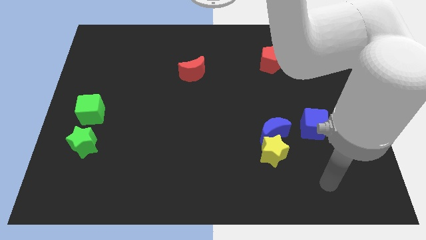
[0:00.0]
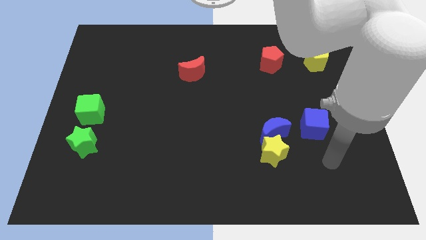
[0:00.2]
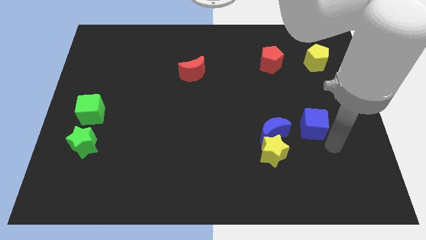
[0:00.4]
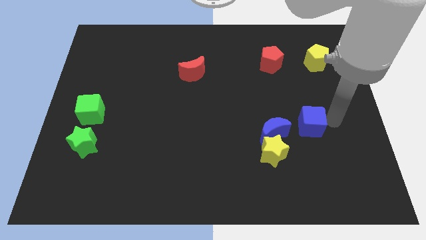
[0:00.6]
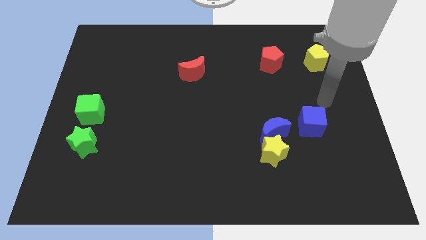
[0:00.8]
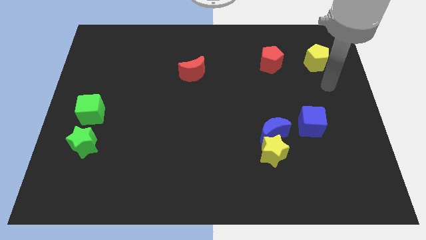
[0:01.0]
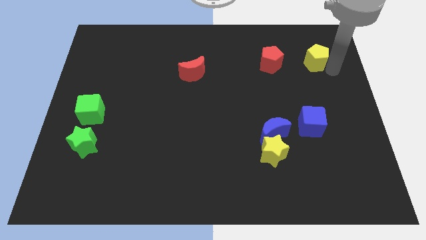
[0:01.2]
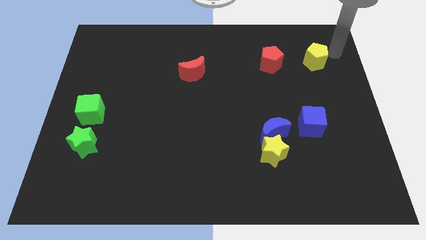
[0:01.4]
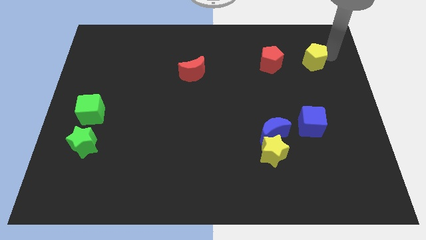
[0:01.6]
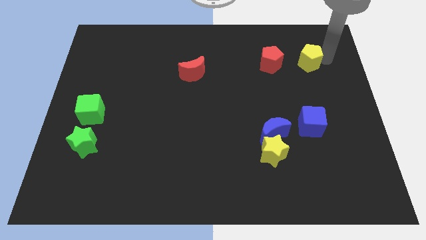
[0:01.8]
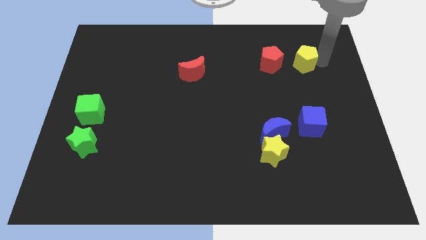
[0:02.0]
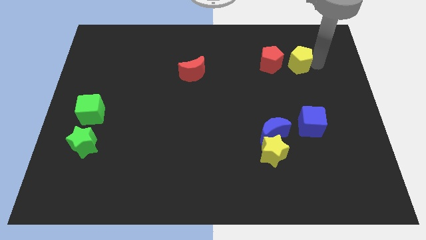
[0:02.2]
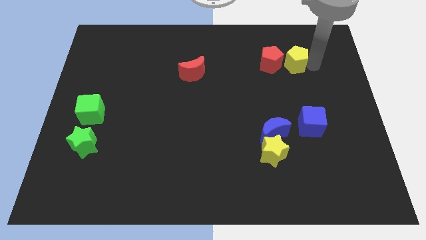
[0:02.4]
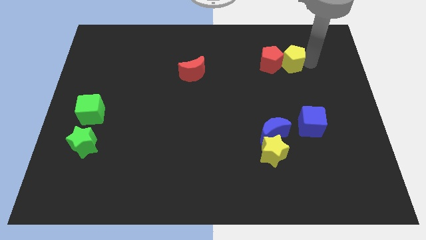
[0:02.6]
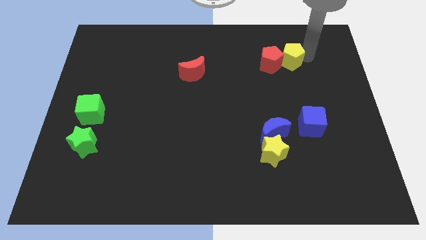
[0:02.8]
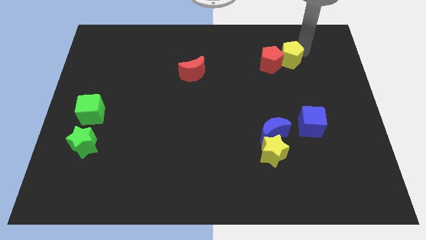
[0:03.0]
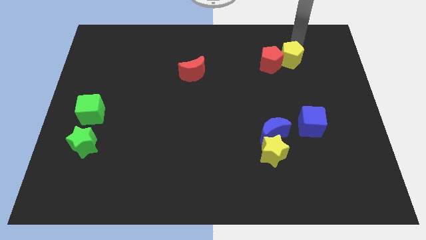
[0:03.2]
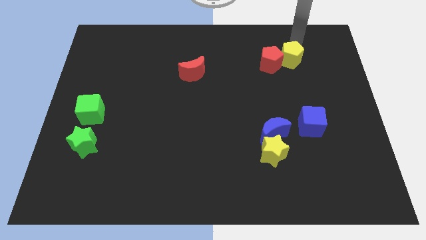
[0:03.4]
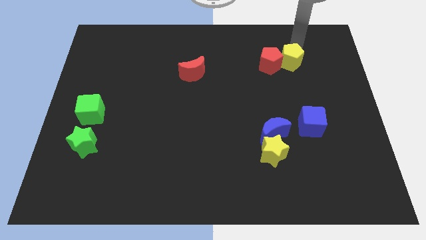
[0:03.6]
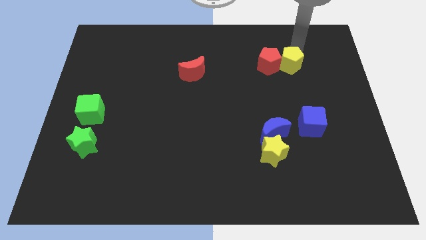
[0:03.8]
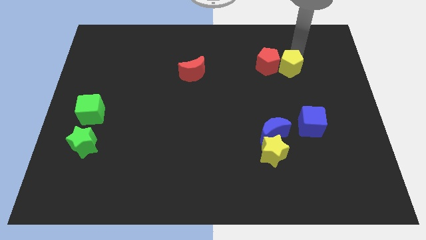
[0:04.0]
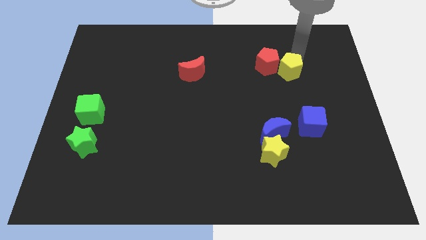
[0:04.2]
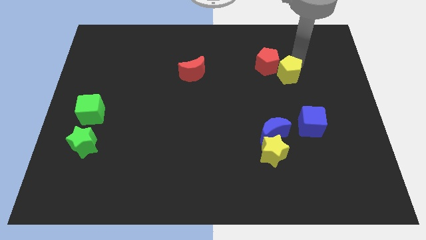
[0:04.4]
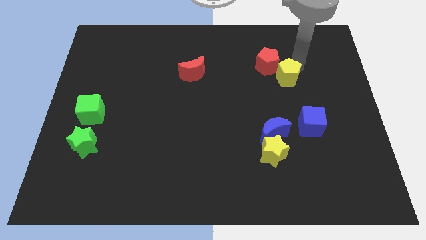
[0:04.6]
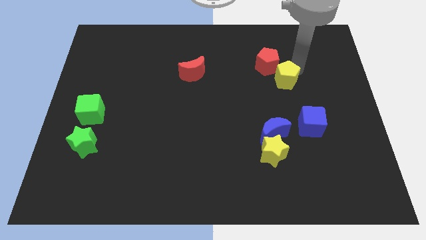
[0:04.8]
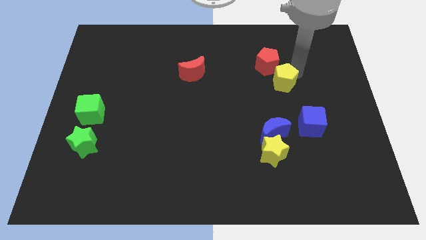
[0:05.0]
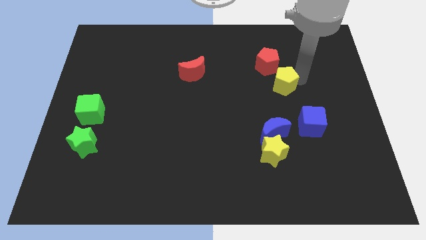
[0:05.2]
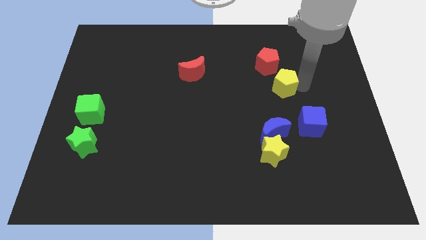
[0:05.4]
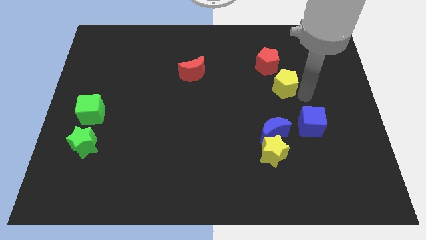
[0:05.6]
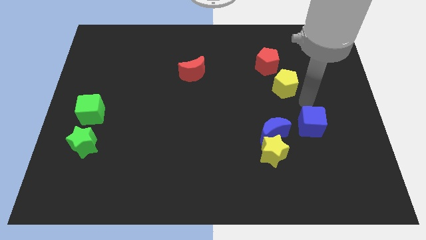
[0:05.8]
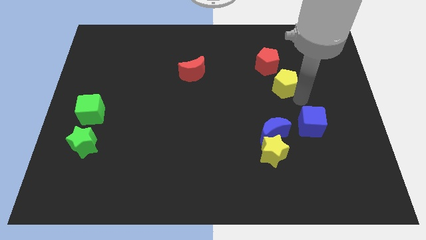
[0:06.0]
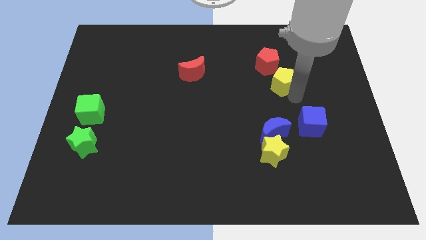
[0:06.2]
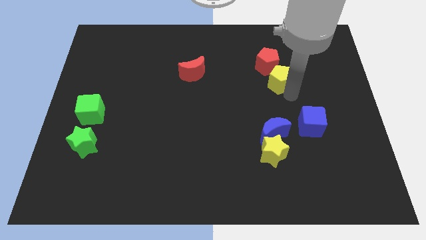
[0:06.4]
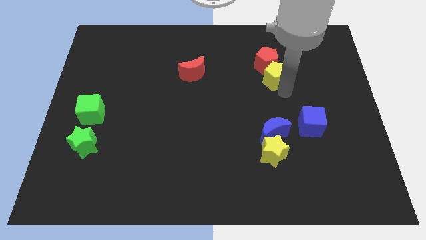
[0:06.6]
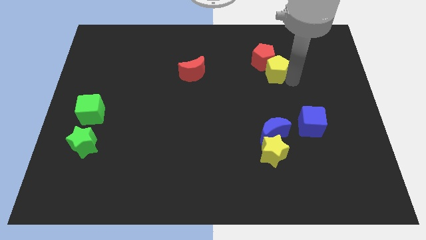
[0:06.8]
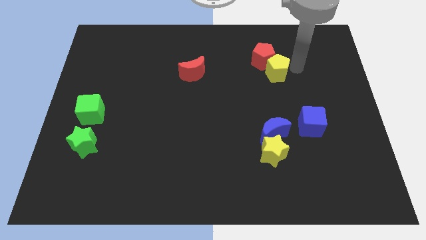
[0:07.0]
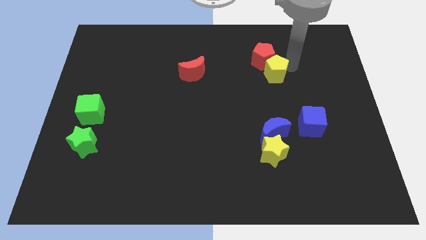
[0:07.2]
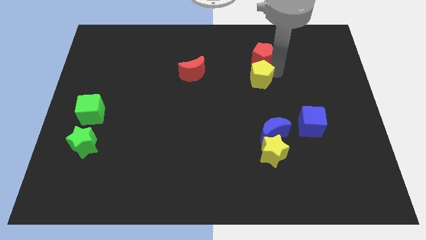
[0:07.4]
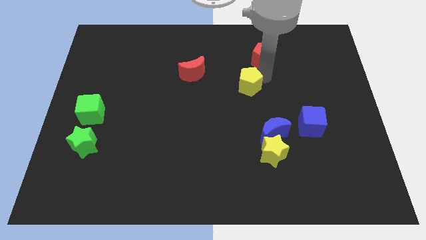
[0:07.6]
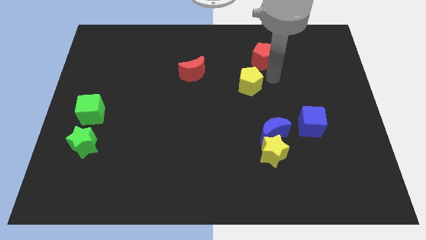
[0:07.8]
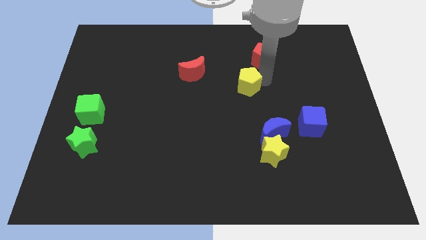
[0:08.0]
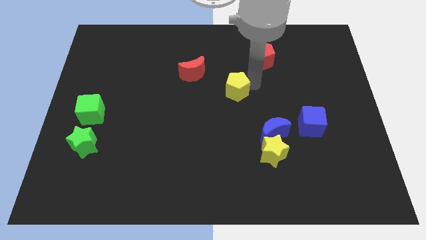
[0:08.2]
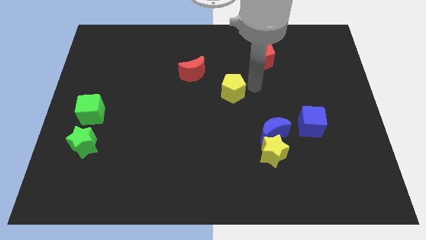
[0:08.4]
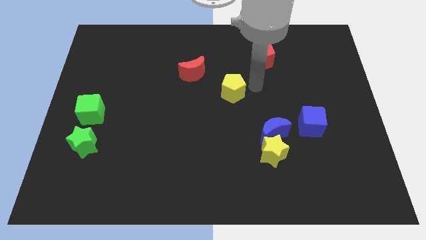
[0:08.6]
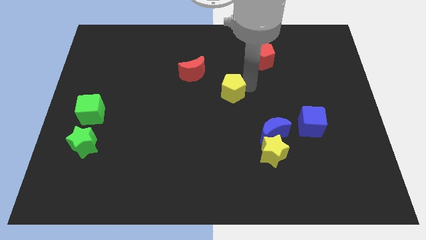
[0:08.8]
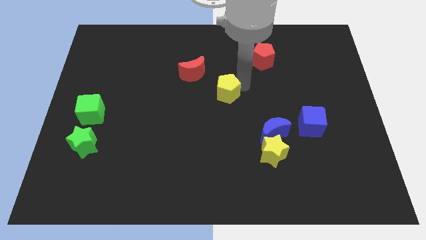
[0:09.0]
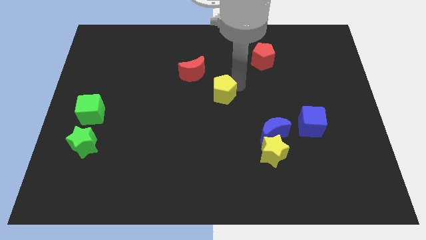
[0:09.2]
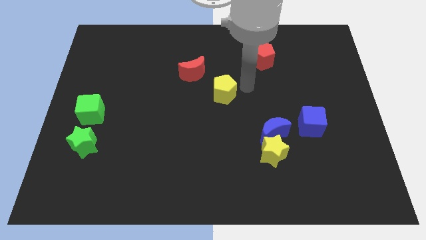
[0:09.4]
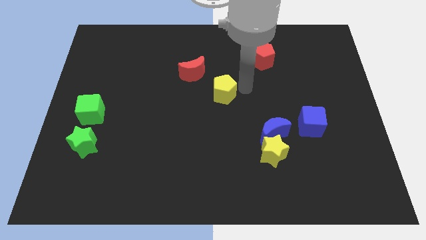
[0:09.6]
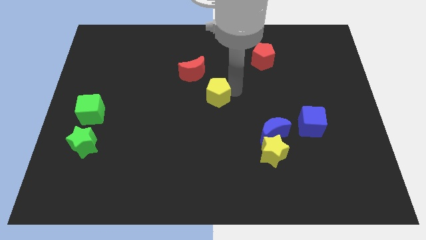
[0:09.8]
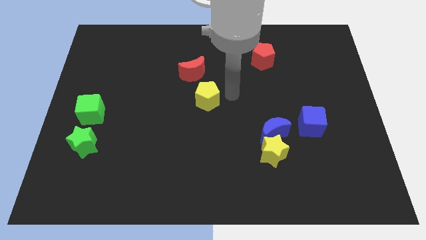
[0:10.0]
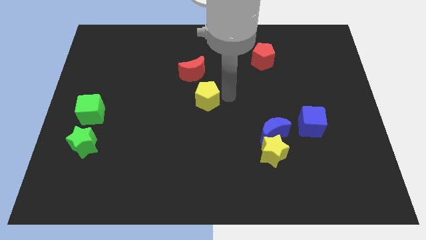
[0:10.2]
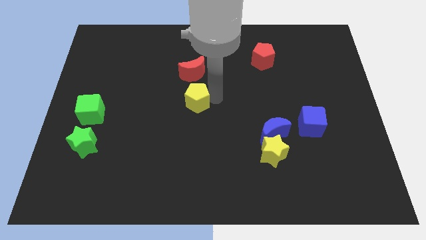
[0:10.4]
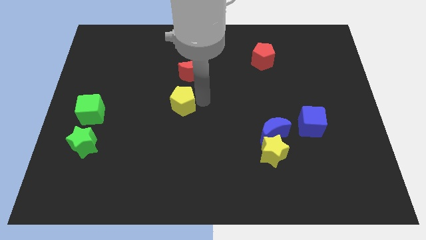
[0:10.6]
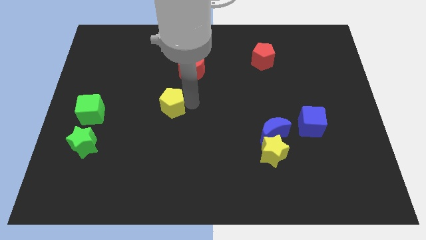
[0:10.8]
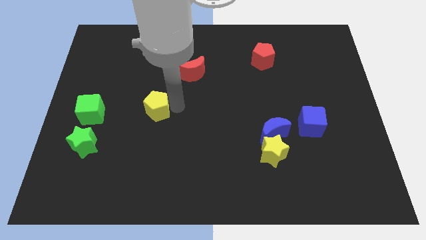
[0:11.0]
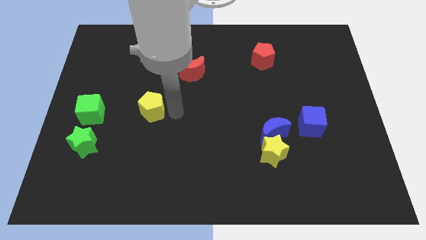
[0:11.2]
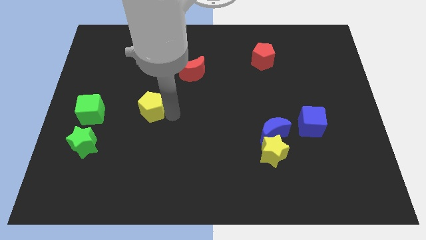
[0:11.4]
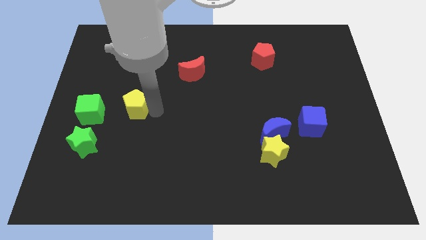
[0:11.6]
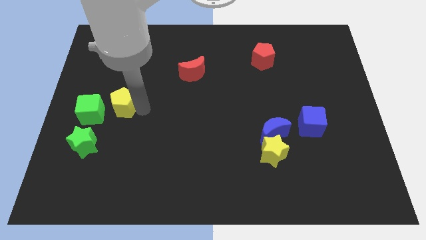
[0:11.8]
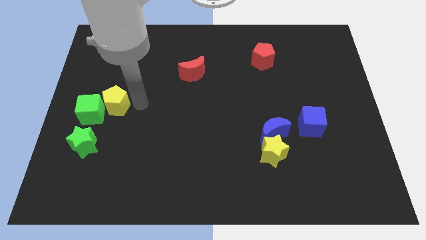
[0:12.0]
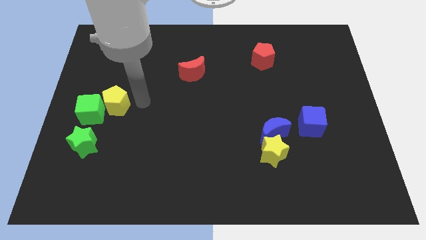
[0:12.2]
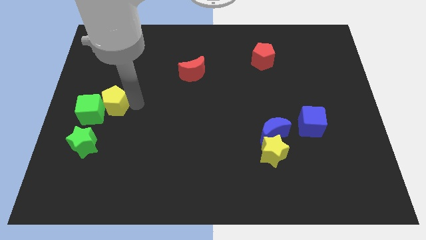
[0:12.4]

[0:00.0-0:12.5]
slide the yellow pentagon to the top side of the green star

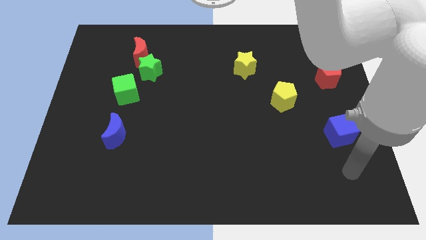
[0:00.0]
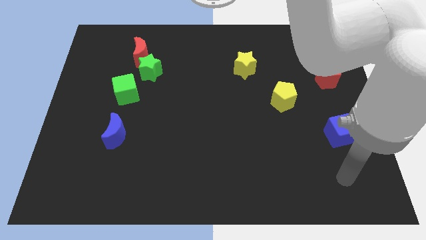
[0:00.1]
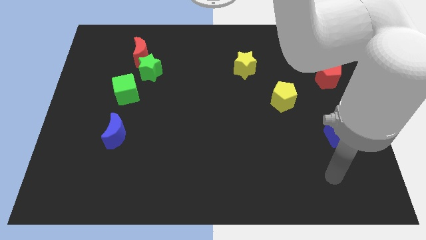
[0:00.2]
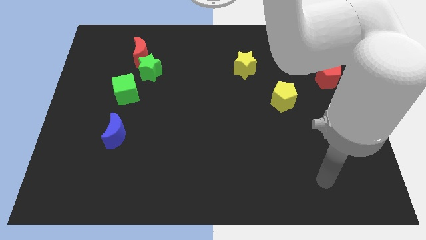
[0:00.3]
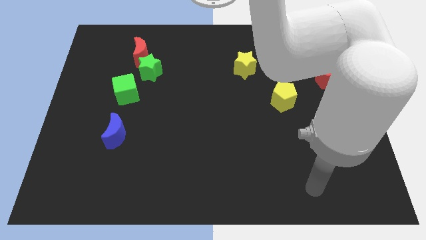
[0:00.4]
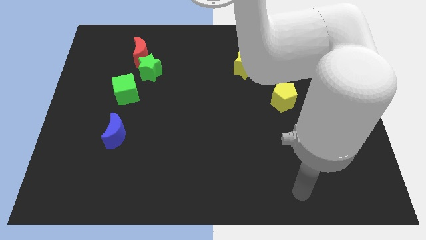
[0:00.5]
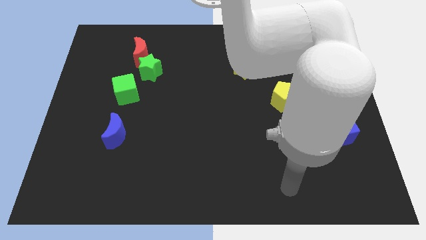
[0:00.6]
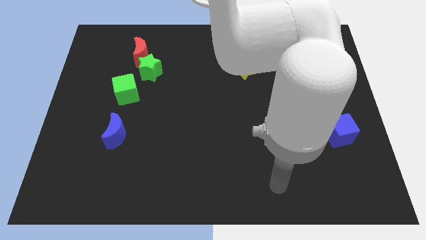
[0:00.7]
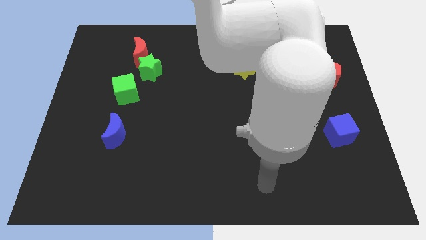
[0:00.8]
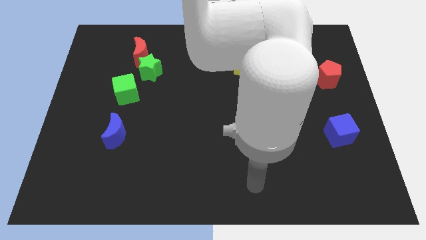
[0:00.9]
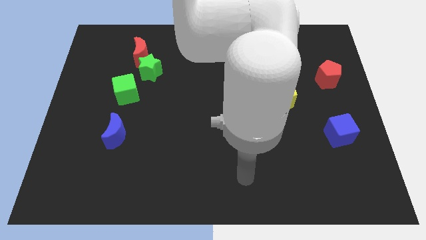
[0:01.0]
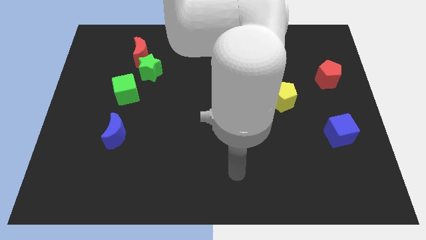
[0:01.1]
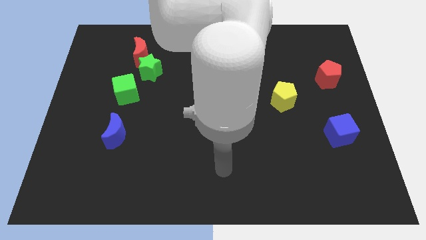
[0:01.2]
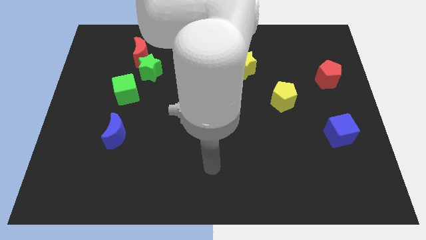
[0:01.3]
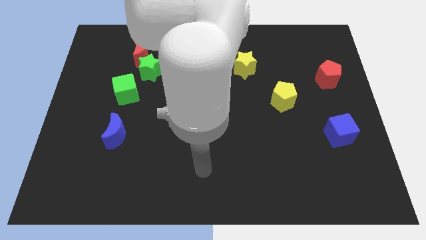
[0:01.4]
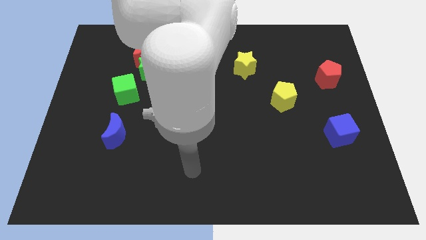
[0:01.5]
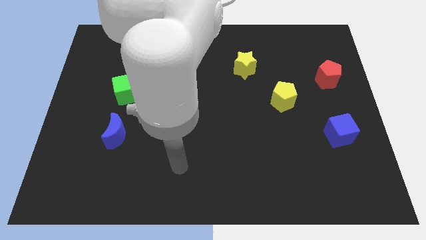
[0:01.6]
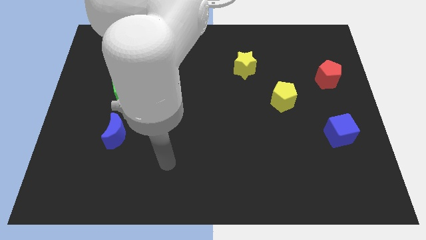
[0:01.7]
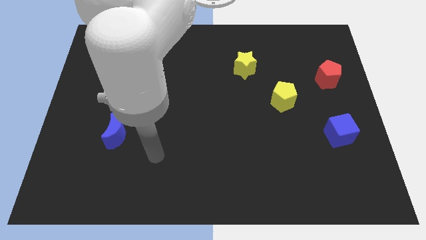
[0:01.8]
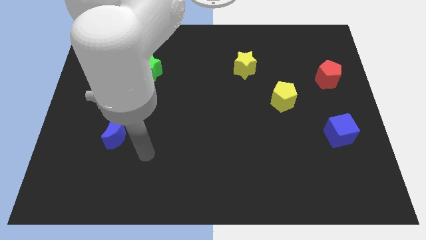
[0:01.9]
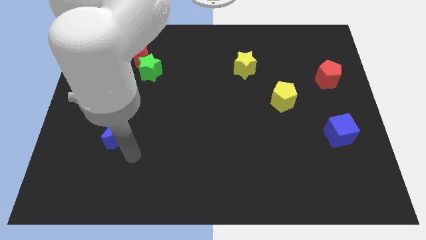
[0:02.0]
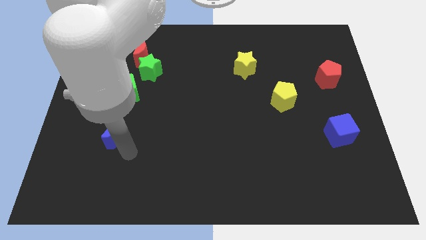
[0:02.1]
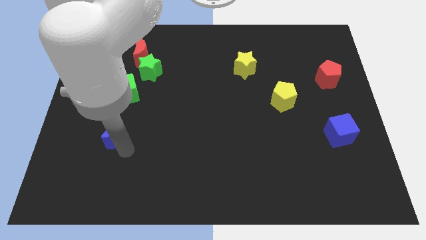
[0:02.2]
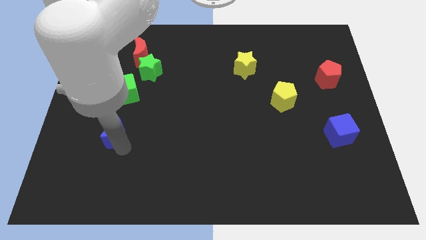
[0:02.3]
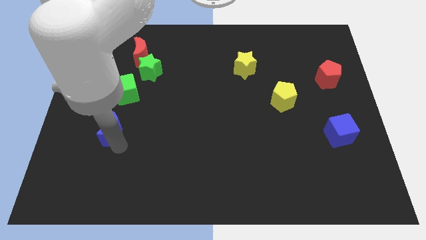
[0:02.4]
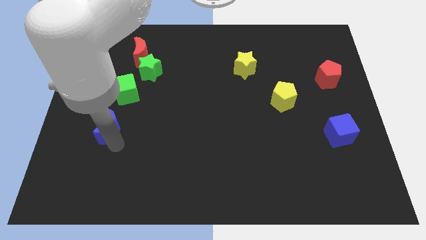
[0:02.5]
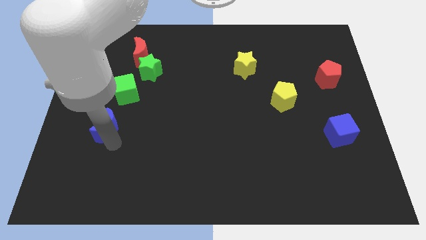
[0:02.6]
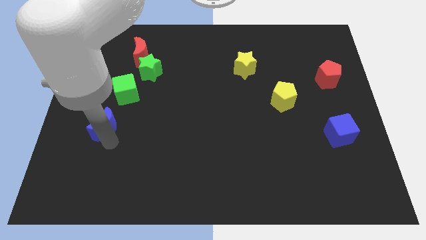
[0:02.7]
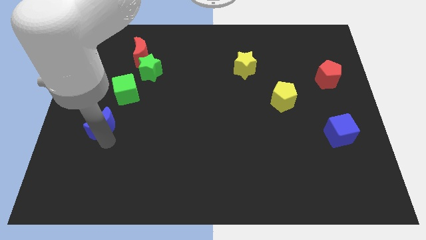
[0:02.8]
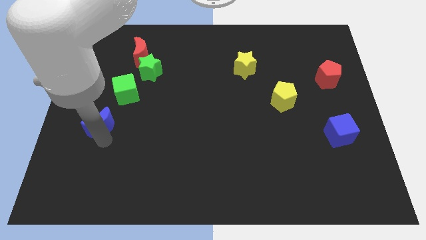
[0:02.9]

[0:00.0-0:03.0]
move the blue moon to the bottom left of the green cube
